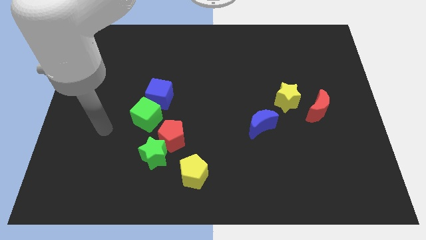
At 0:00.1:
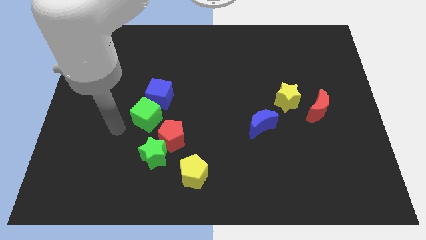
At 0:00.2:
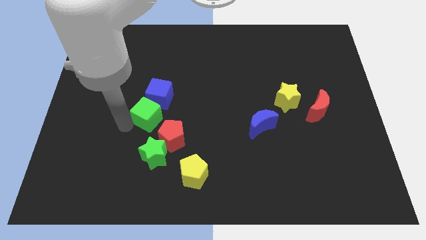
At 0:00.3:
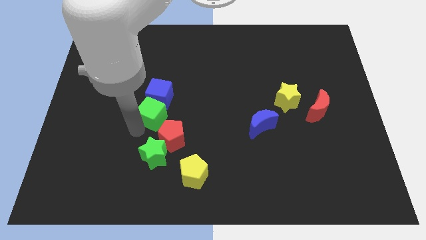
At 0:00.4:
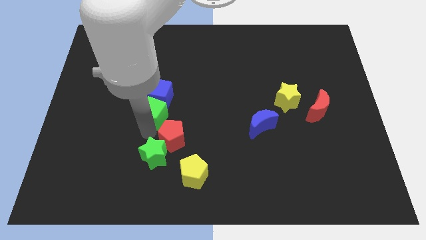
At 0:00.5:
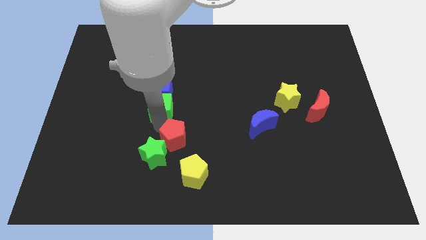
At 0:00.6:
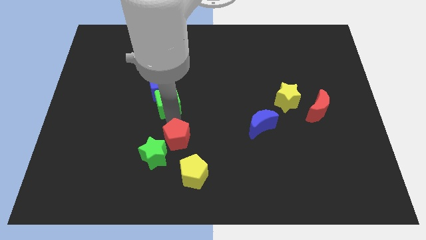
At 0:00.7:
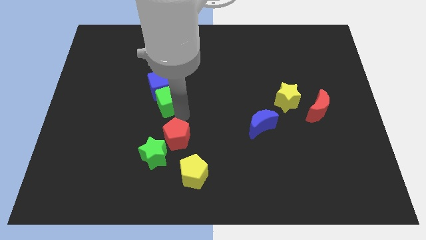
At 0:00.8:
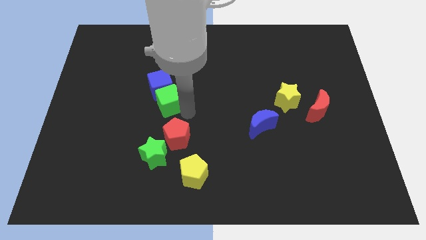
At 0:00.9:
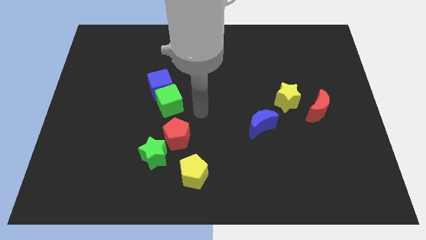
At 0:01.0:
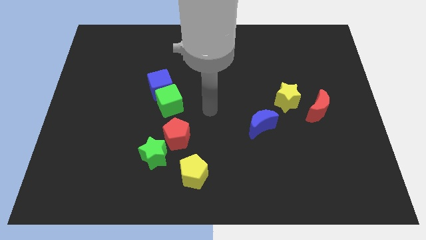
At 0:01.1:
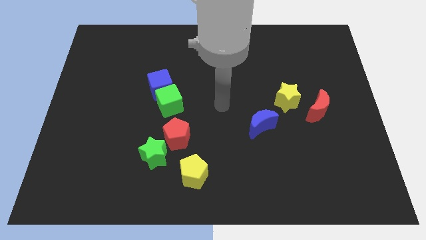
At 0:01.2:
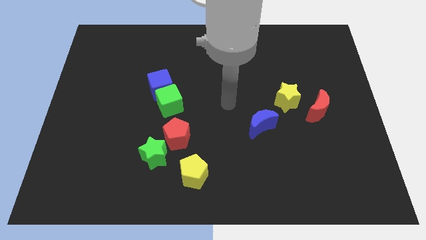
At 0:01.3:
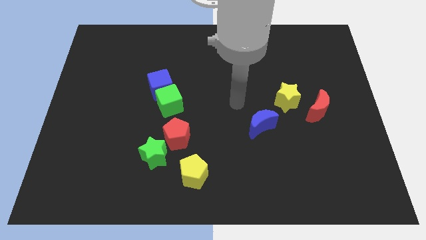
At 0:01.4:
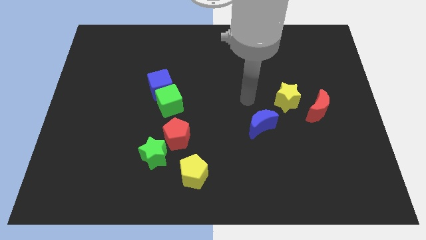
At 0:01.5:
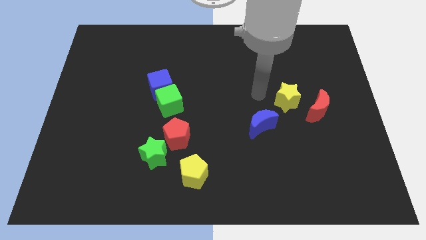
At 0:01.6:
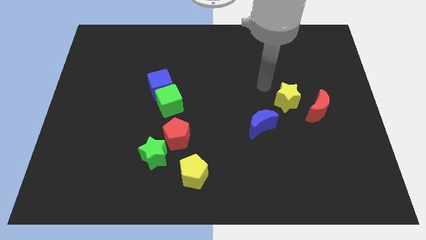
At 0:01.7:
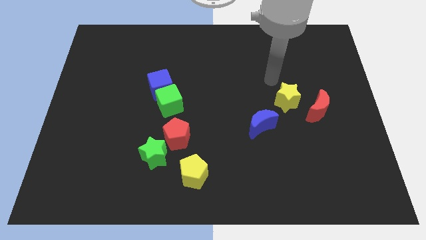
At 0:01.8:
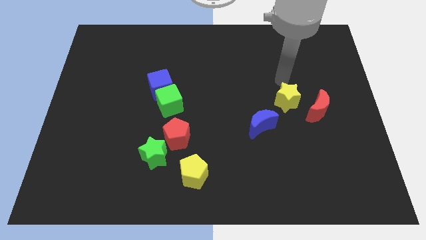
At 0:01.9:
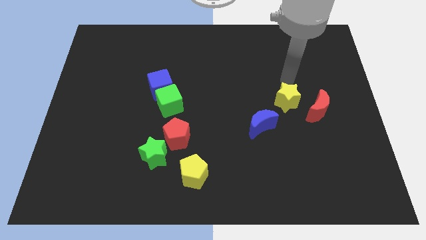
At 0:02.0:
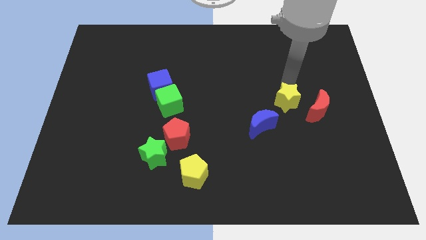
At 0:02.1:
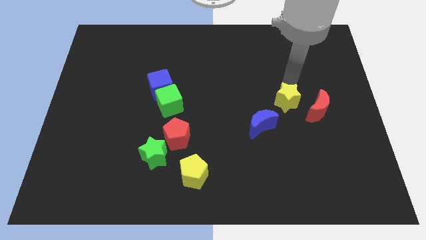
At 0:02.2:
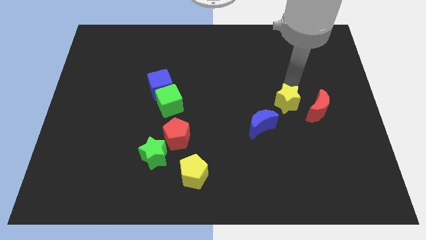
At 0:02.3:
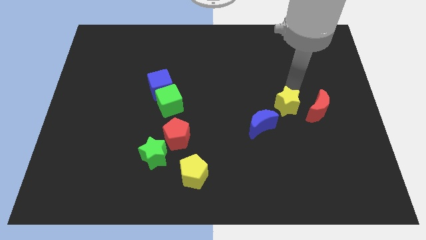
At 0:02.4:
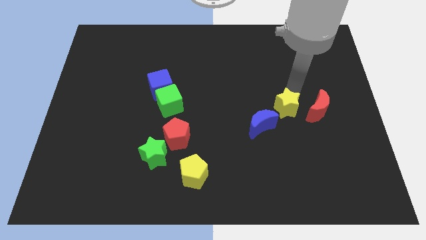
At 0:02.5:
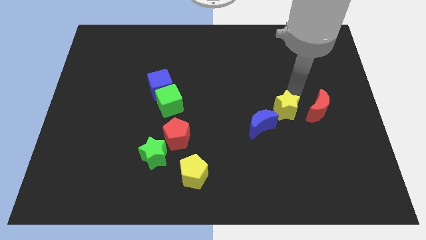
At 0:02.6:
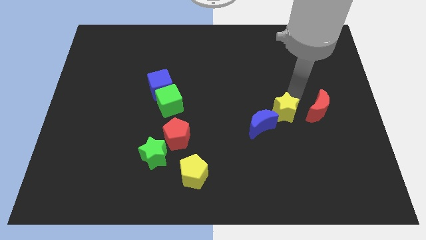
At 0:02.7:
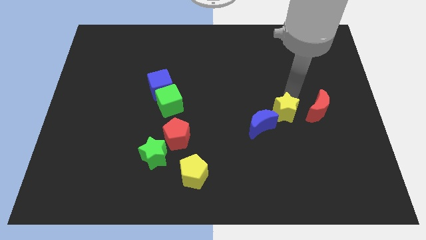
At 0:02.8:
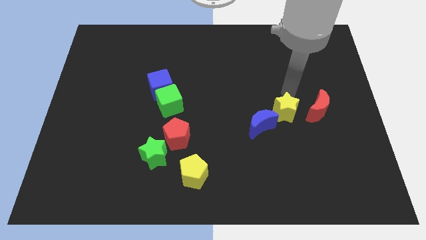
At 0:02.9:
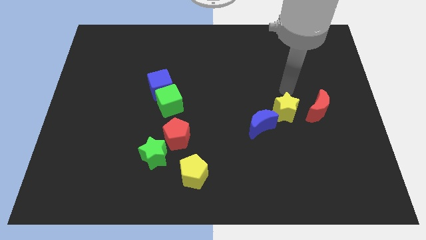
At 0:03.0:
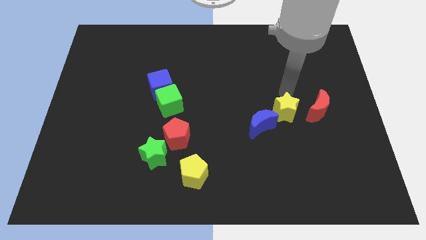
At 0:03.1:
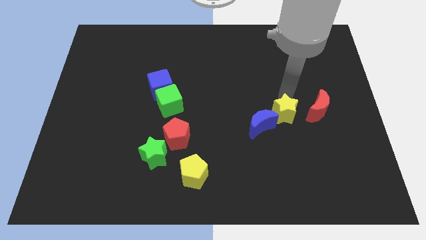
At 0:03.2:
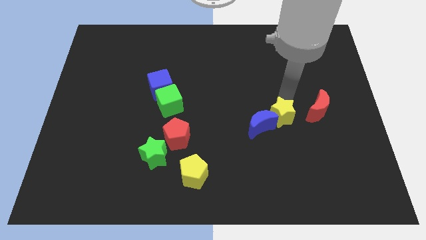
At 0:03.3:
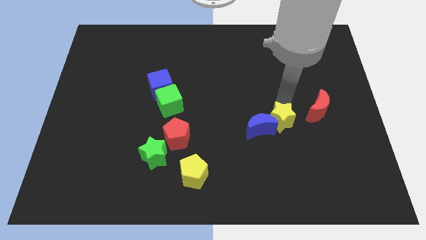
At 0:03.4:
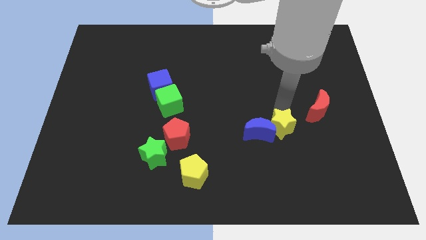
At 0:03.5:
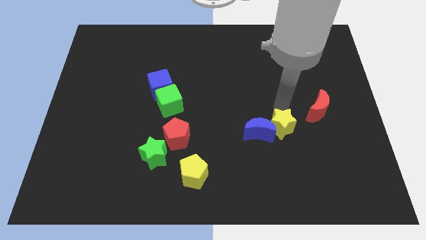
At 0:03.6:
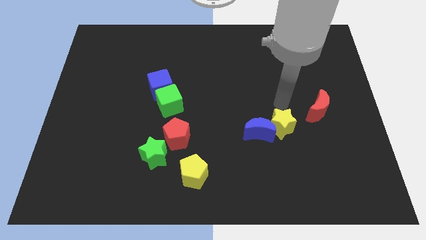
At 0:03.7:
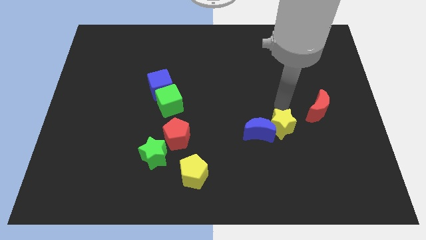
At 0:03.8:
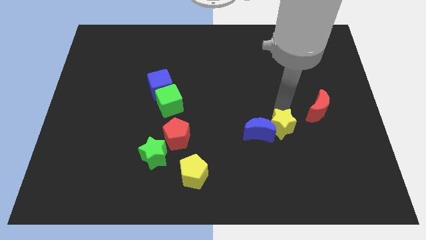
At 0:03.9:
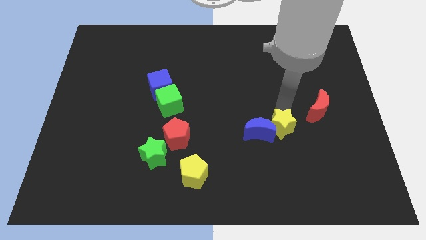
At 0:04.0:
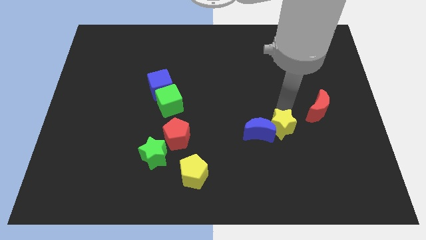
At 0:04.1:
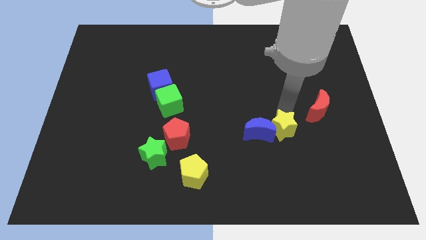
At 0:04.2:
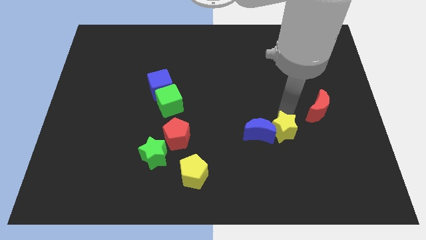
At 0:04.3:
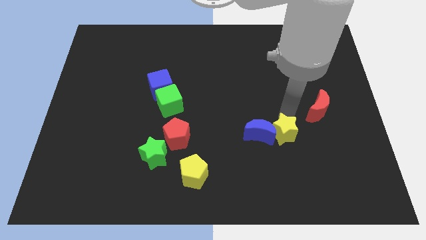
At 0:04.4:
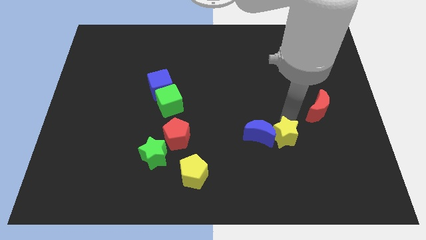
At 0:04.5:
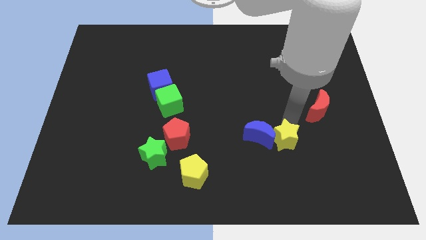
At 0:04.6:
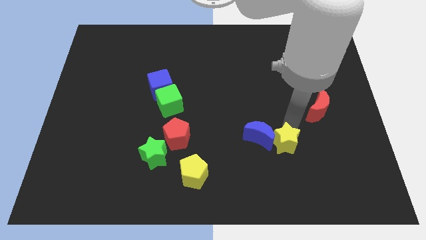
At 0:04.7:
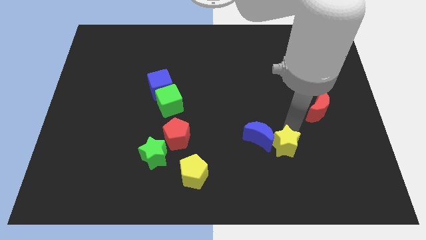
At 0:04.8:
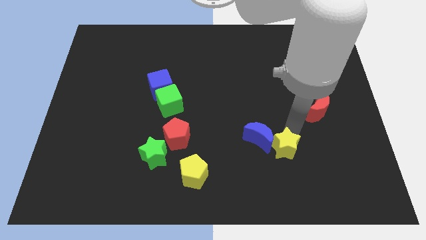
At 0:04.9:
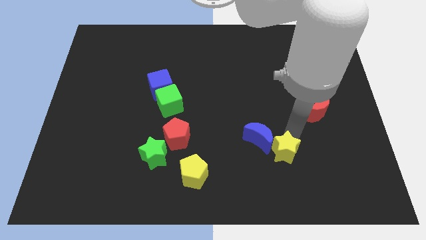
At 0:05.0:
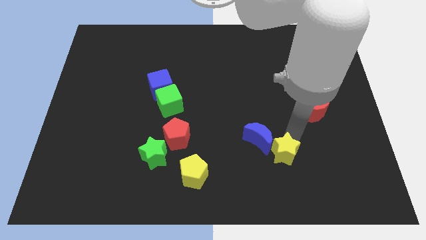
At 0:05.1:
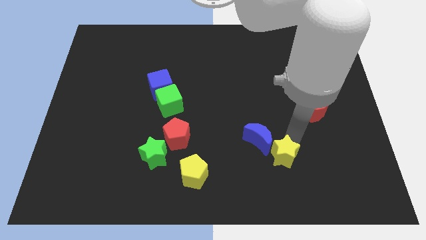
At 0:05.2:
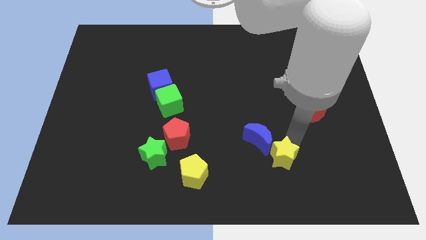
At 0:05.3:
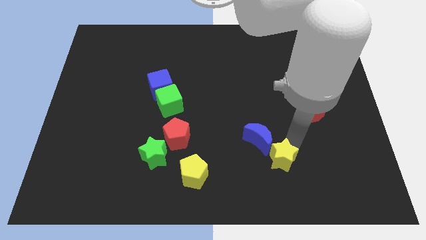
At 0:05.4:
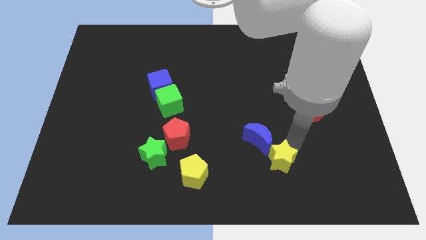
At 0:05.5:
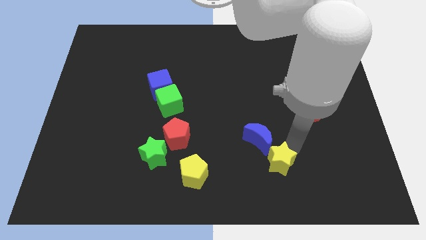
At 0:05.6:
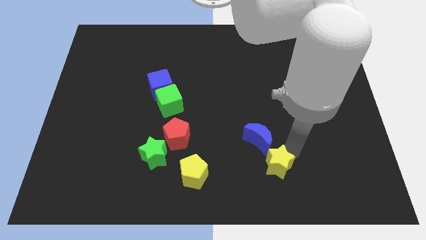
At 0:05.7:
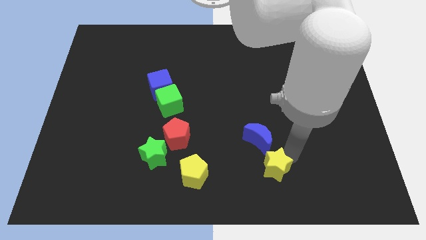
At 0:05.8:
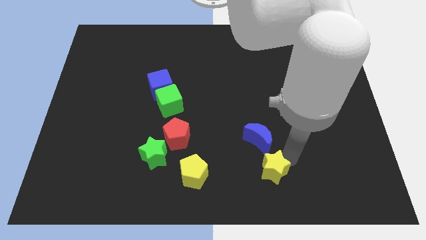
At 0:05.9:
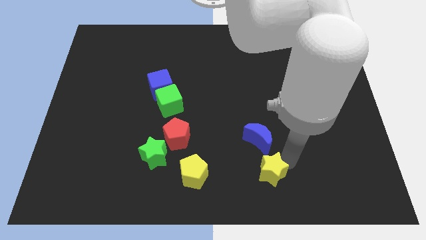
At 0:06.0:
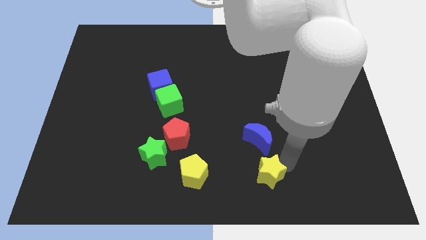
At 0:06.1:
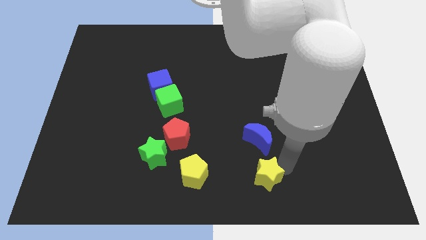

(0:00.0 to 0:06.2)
push the yellow star to the bottom

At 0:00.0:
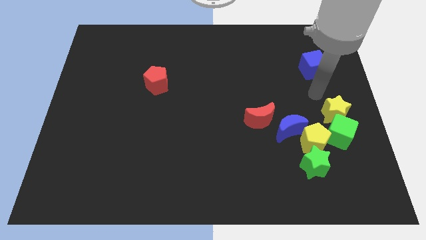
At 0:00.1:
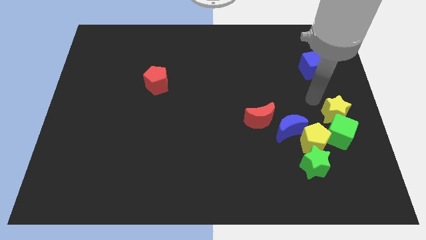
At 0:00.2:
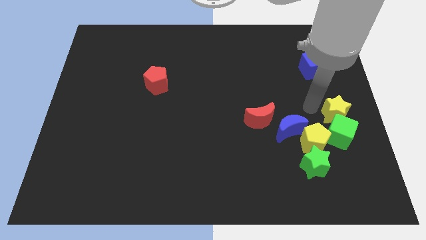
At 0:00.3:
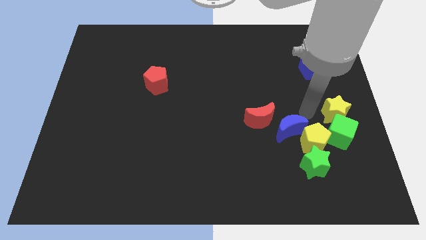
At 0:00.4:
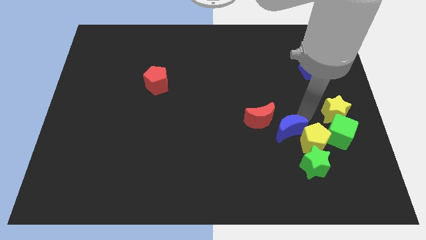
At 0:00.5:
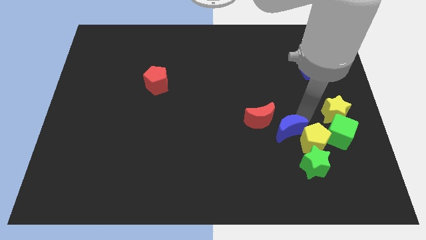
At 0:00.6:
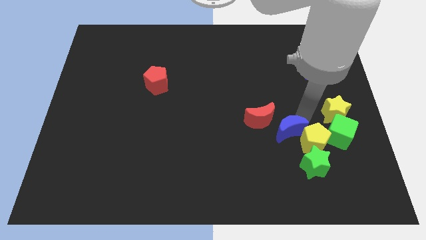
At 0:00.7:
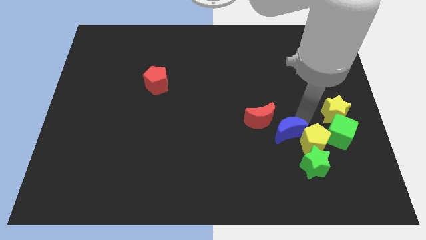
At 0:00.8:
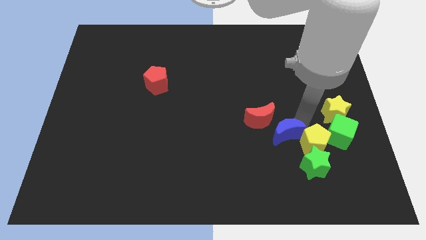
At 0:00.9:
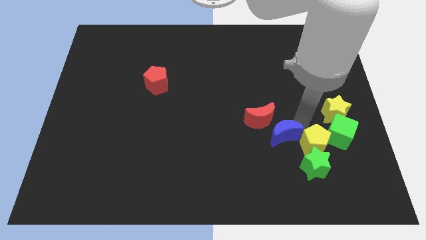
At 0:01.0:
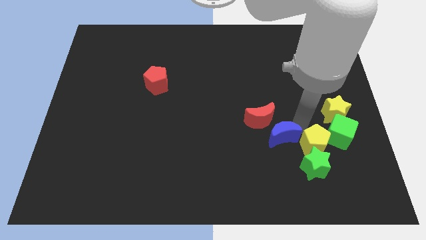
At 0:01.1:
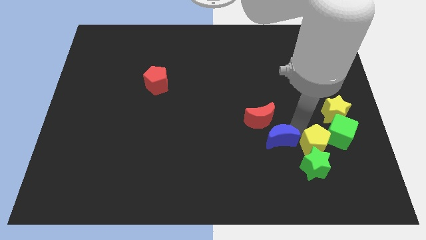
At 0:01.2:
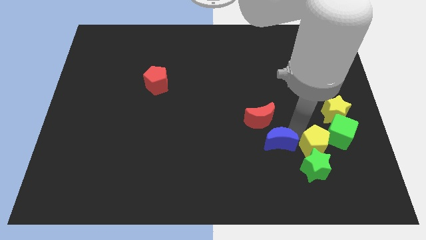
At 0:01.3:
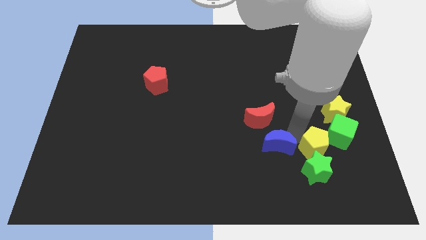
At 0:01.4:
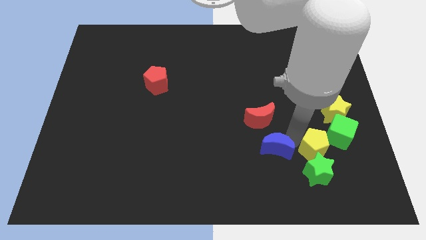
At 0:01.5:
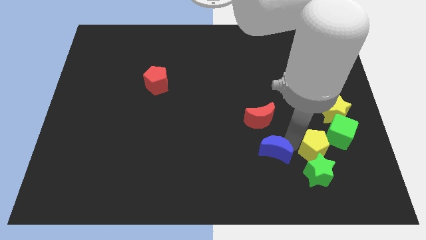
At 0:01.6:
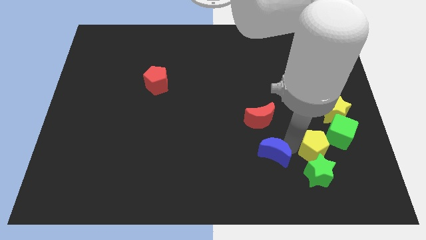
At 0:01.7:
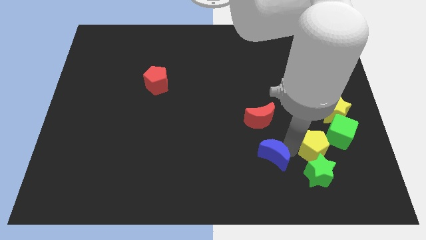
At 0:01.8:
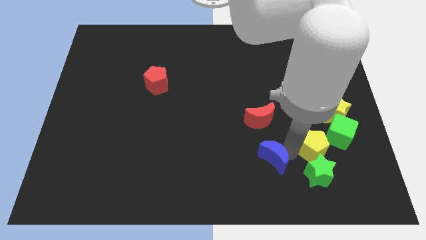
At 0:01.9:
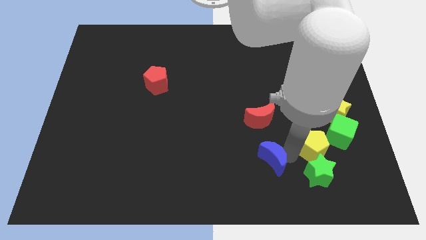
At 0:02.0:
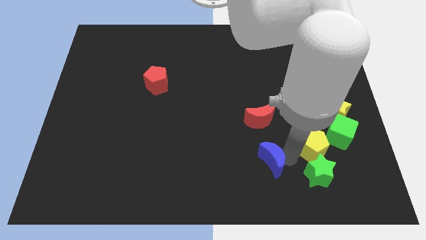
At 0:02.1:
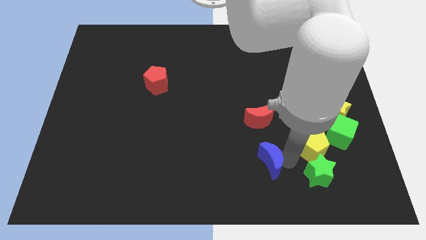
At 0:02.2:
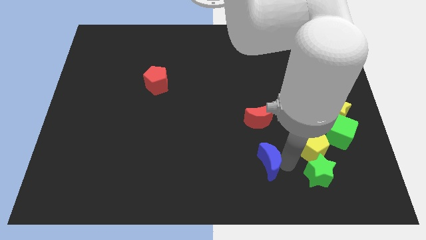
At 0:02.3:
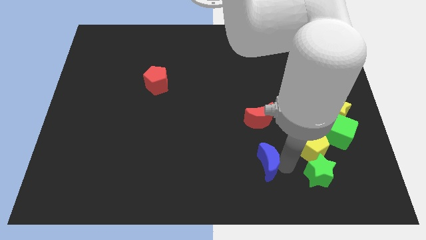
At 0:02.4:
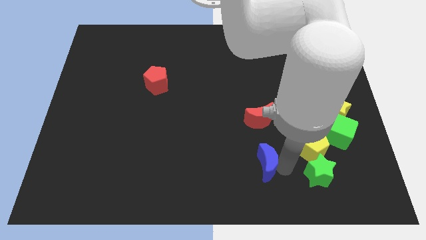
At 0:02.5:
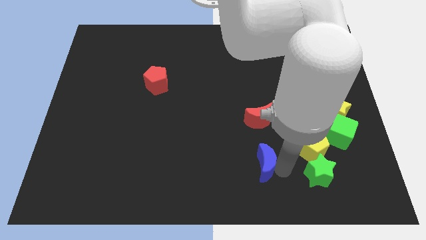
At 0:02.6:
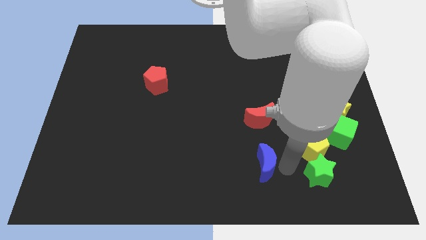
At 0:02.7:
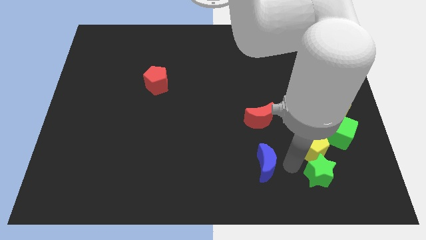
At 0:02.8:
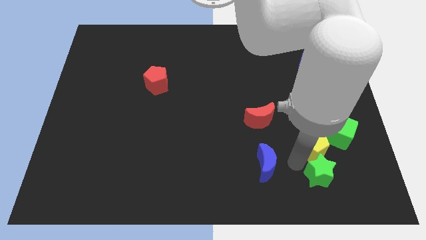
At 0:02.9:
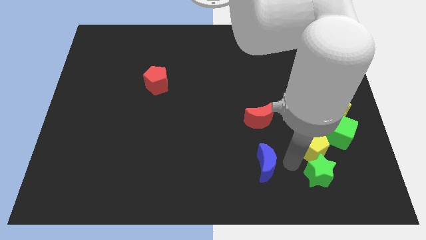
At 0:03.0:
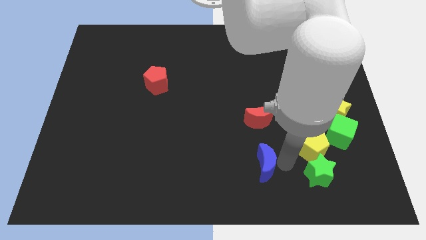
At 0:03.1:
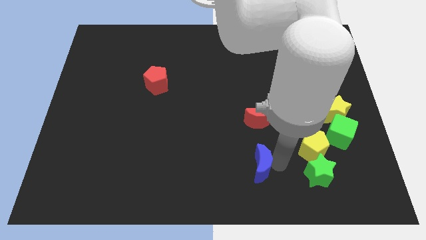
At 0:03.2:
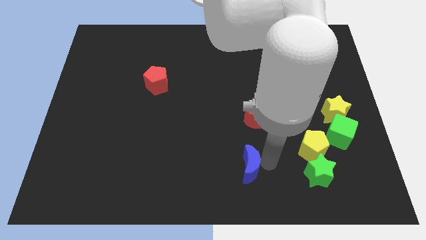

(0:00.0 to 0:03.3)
slide the blue moon to the bottom side
